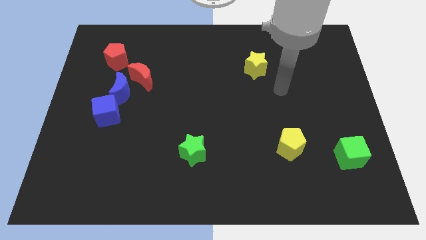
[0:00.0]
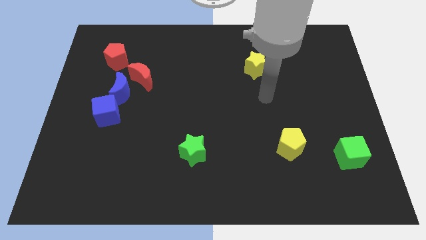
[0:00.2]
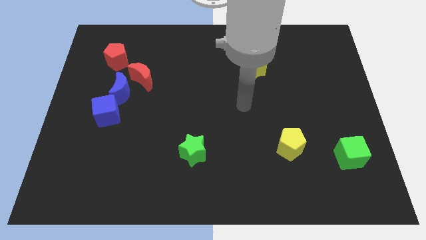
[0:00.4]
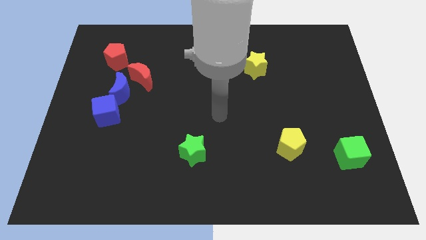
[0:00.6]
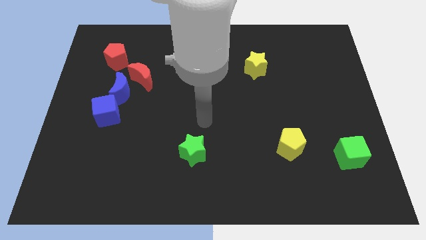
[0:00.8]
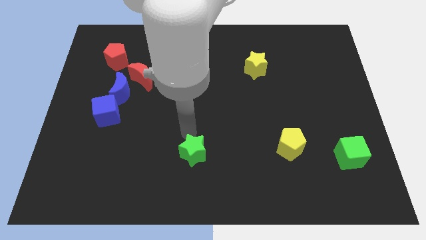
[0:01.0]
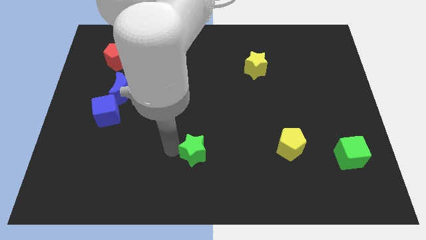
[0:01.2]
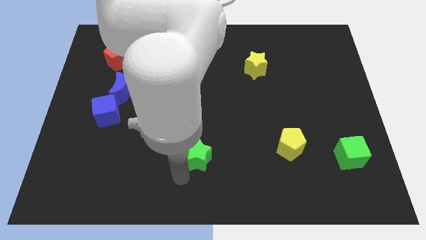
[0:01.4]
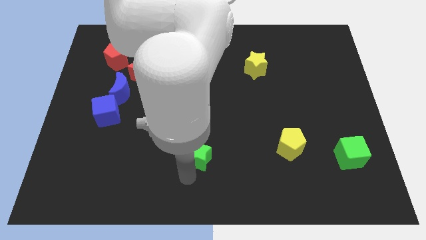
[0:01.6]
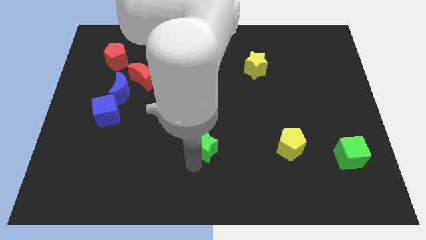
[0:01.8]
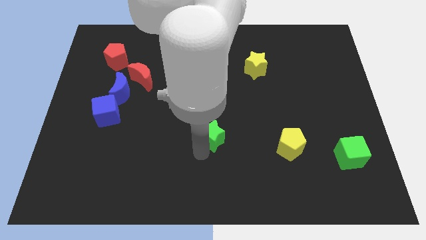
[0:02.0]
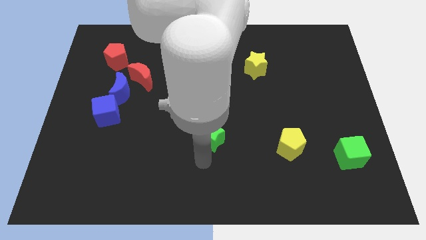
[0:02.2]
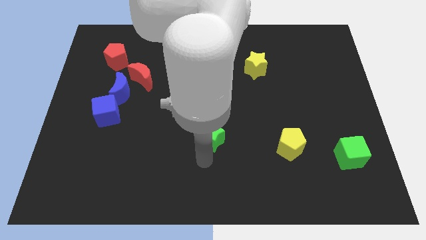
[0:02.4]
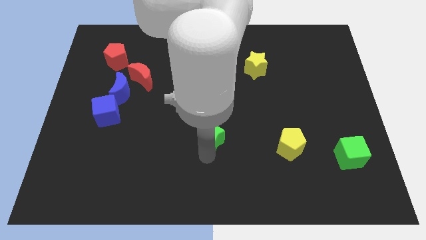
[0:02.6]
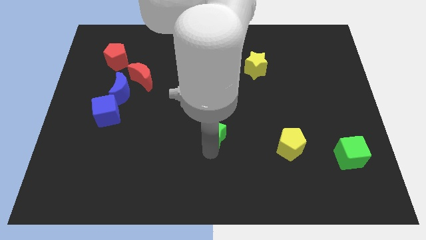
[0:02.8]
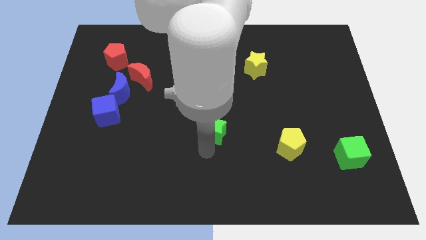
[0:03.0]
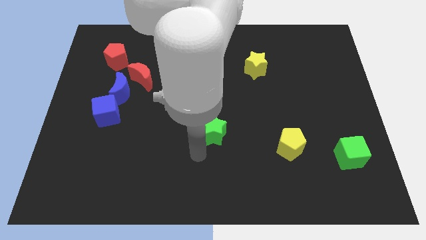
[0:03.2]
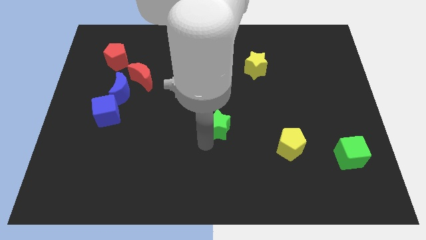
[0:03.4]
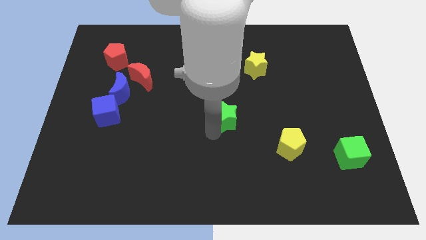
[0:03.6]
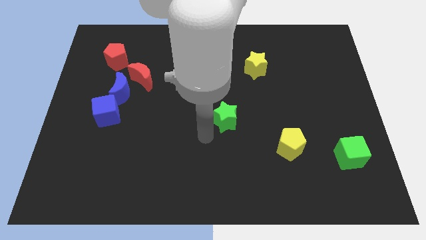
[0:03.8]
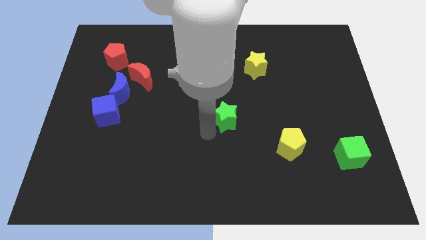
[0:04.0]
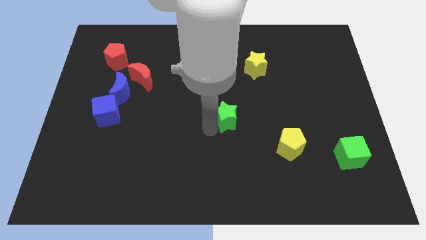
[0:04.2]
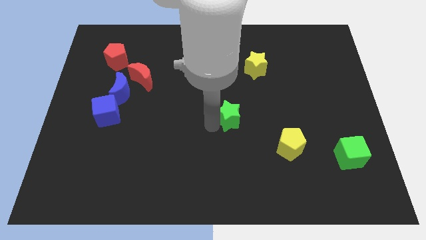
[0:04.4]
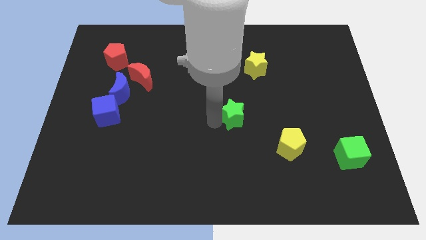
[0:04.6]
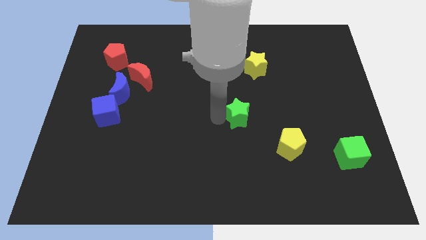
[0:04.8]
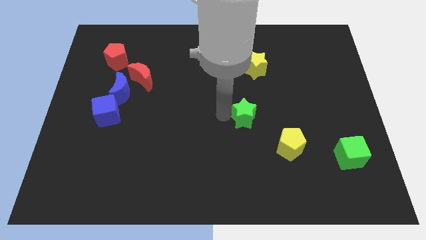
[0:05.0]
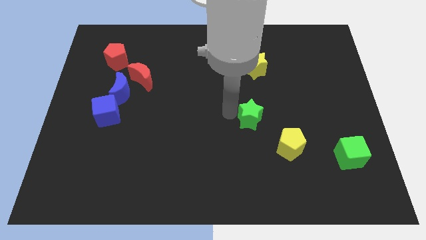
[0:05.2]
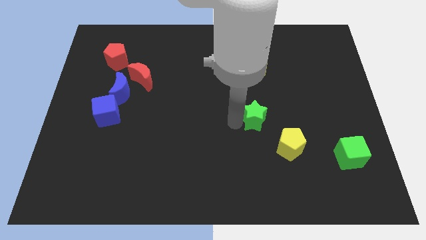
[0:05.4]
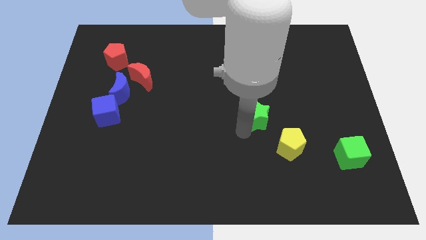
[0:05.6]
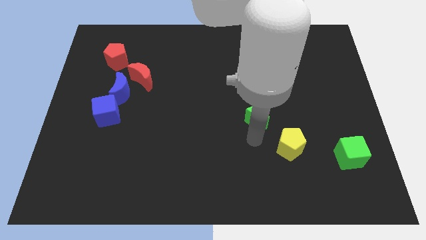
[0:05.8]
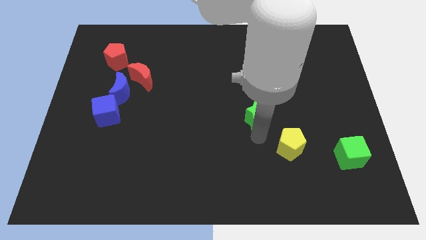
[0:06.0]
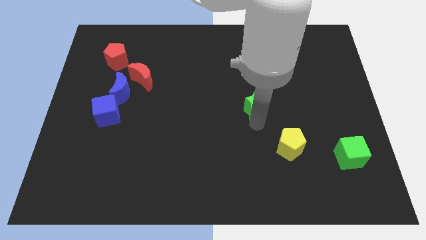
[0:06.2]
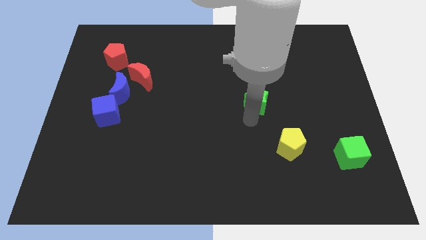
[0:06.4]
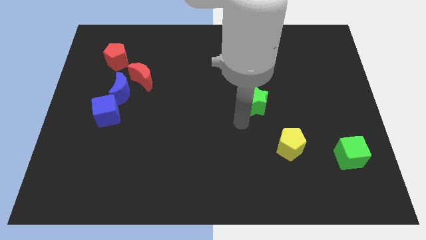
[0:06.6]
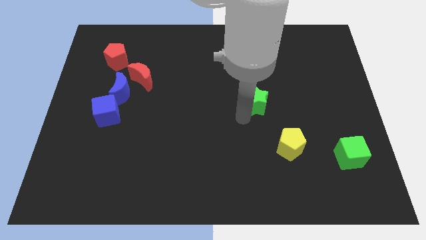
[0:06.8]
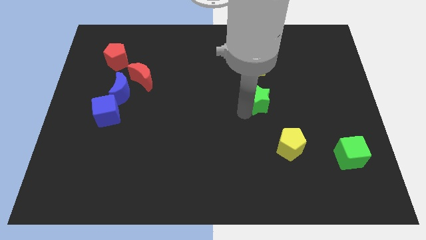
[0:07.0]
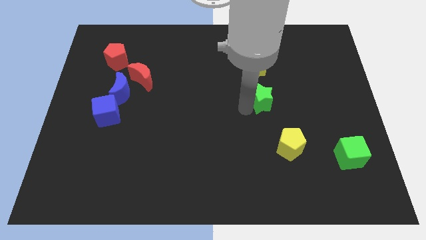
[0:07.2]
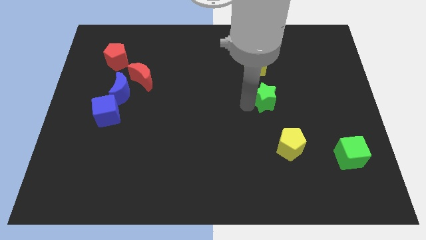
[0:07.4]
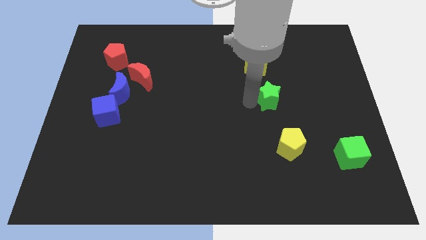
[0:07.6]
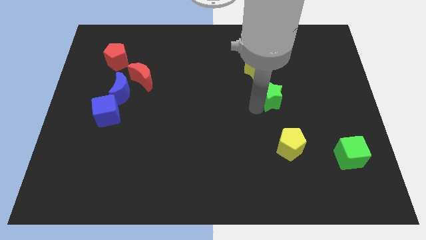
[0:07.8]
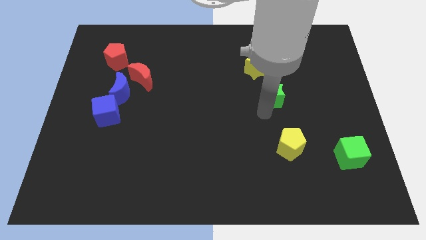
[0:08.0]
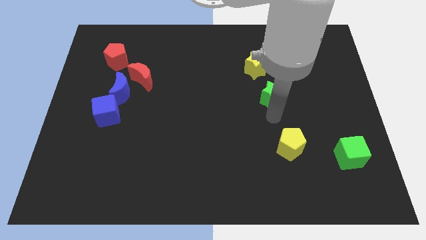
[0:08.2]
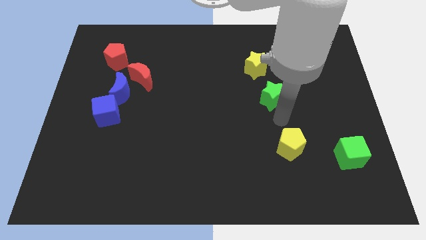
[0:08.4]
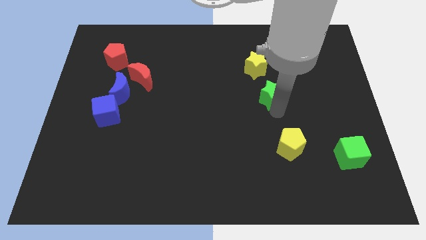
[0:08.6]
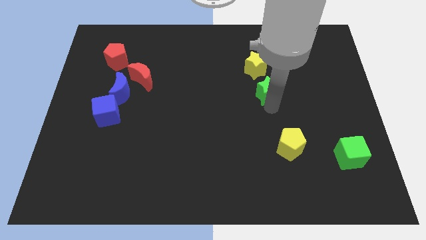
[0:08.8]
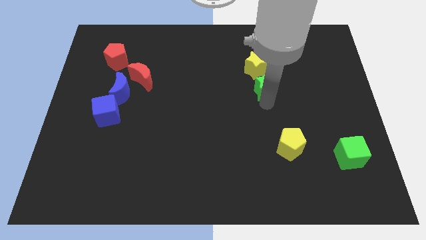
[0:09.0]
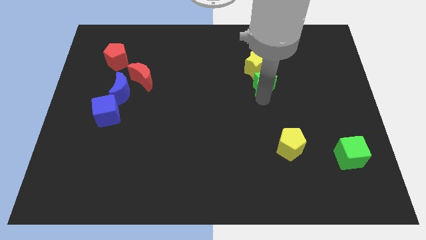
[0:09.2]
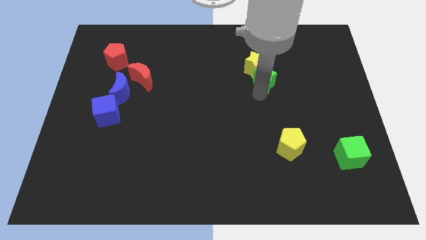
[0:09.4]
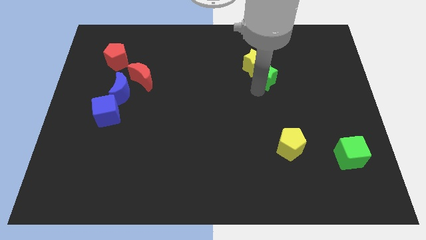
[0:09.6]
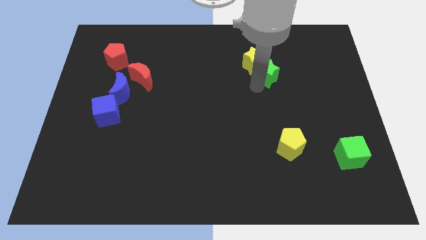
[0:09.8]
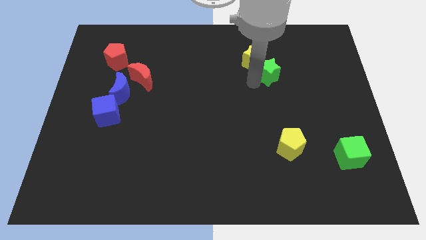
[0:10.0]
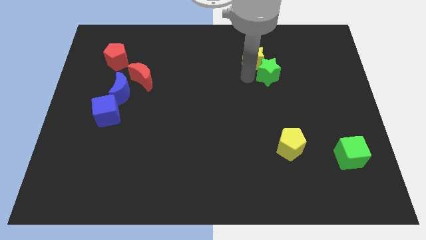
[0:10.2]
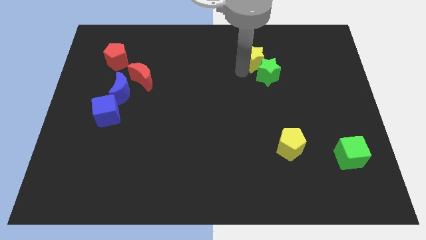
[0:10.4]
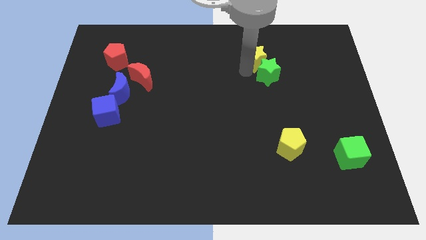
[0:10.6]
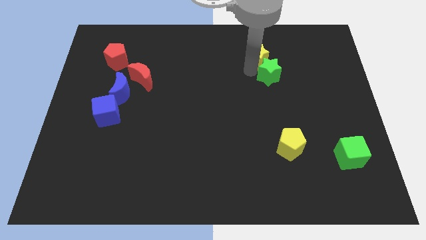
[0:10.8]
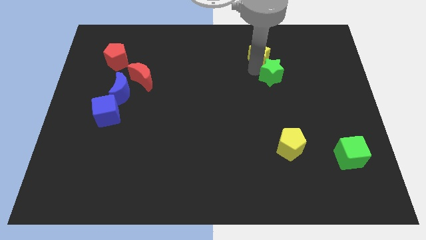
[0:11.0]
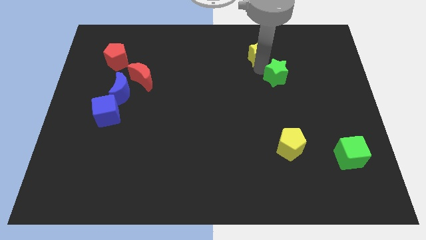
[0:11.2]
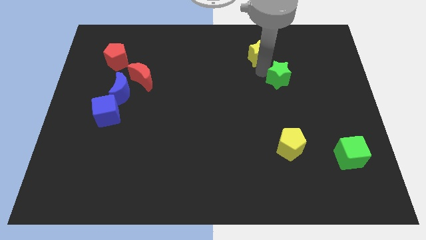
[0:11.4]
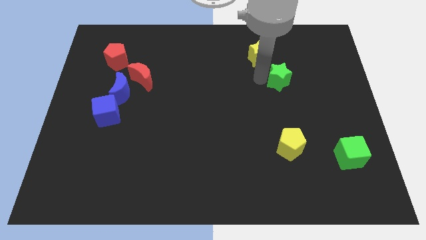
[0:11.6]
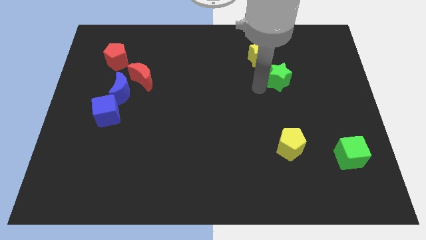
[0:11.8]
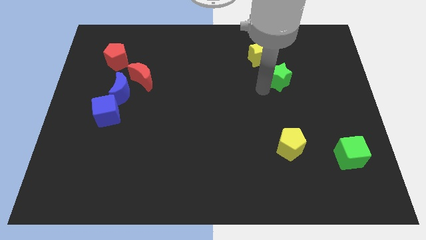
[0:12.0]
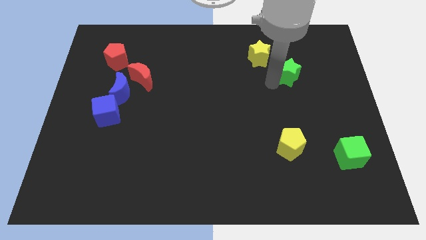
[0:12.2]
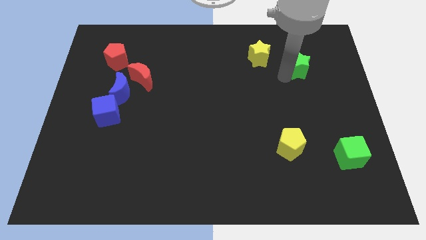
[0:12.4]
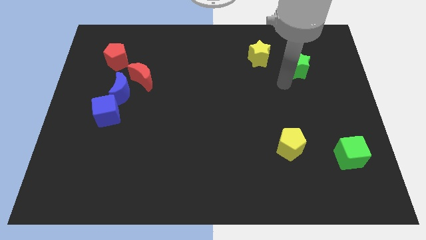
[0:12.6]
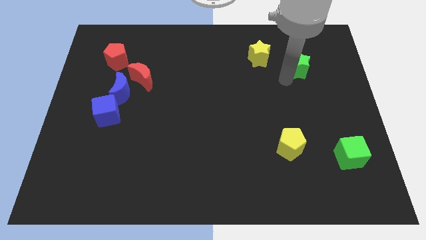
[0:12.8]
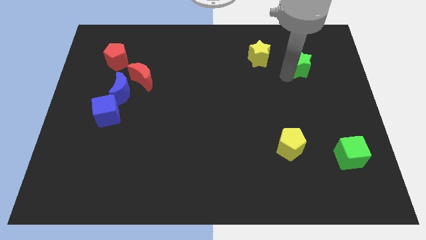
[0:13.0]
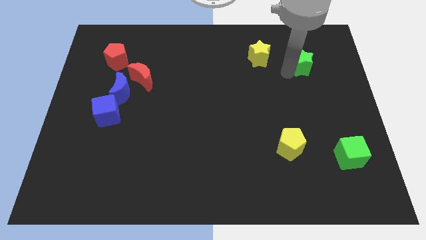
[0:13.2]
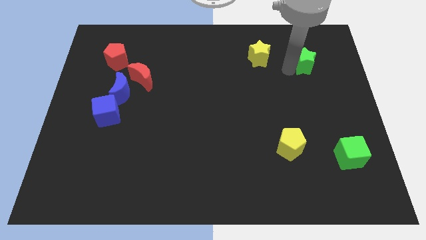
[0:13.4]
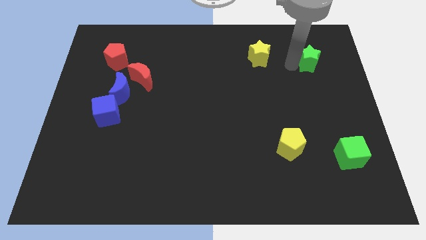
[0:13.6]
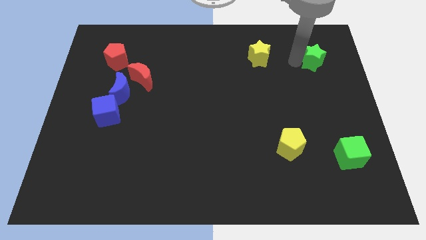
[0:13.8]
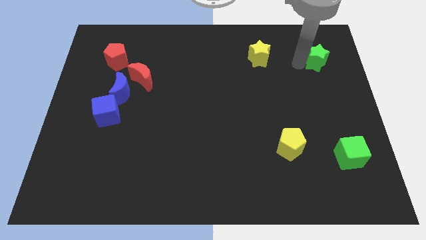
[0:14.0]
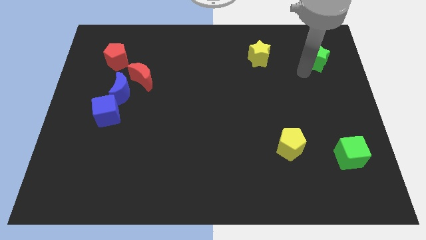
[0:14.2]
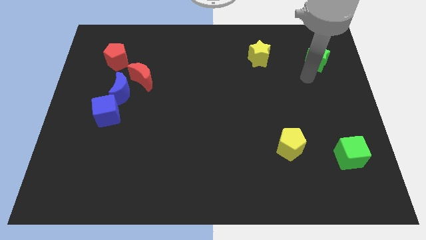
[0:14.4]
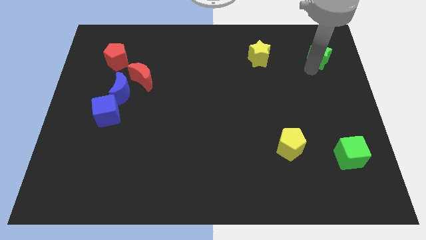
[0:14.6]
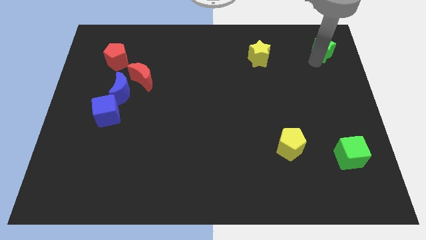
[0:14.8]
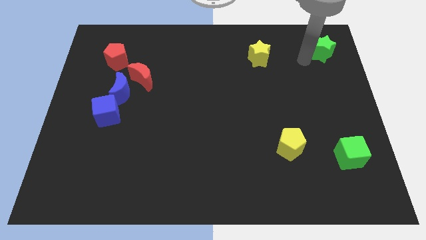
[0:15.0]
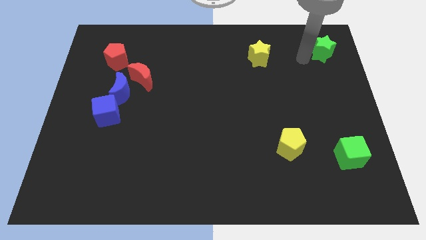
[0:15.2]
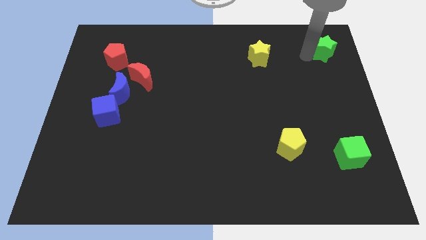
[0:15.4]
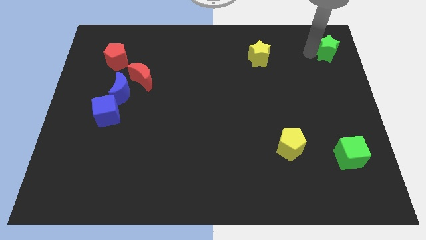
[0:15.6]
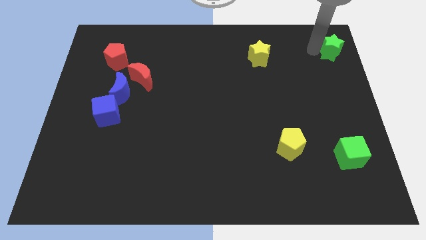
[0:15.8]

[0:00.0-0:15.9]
push the green star to the top right
